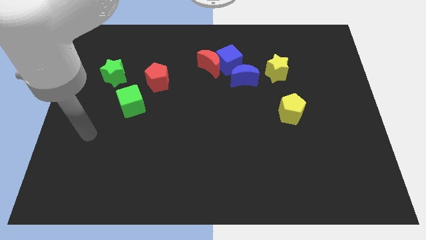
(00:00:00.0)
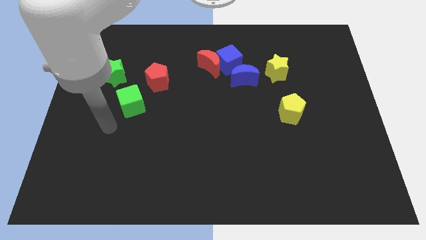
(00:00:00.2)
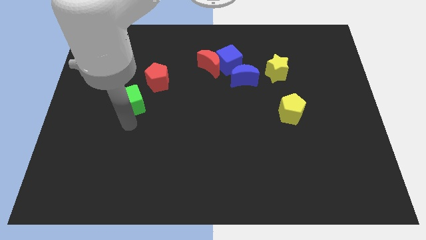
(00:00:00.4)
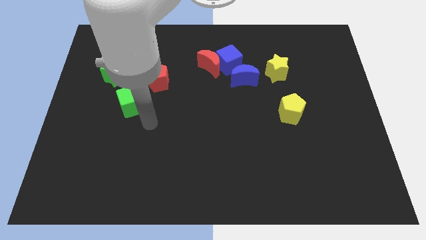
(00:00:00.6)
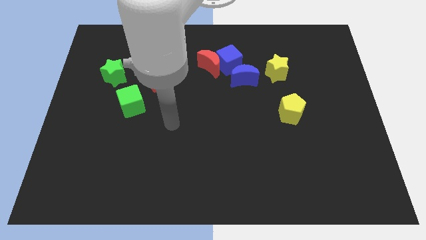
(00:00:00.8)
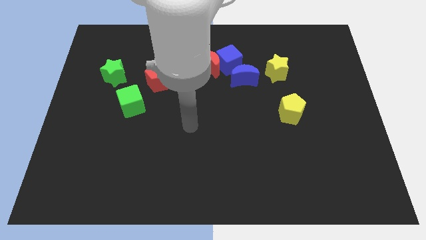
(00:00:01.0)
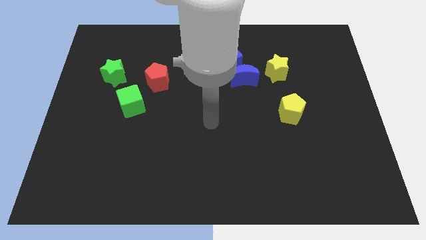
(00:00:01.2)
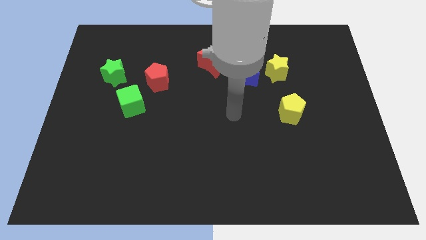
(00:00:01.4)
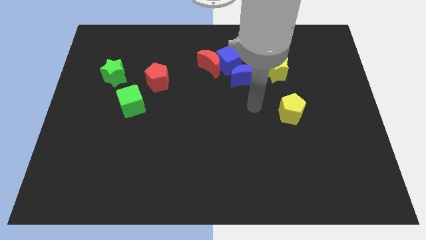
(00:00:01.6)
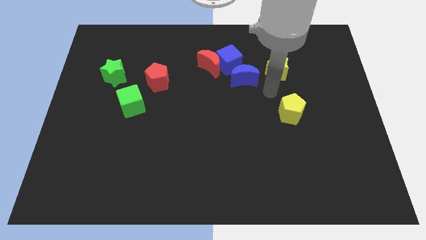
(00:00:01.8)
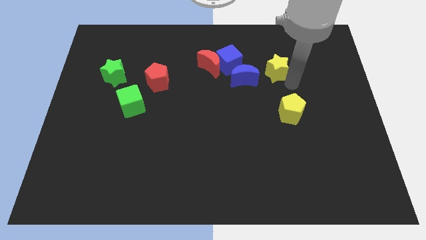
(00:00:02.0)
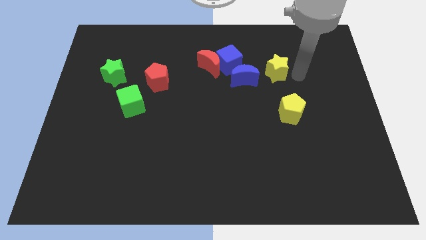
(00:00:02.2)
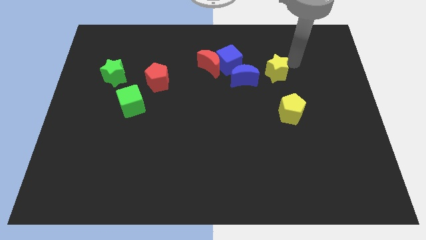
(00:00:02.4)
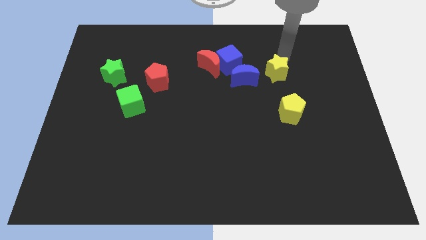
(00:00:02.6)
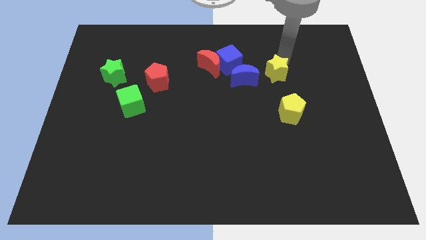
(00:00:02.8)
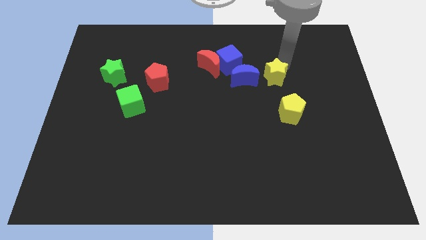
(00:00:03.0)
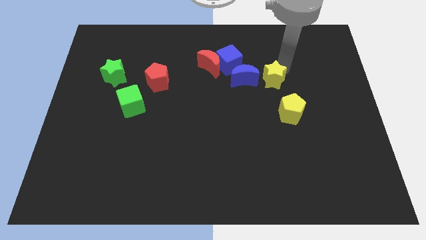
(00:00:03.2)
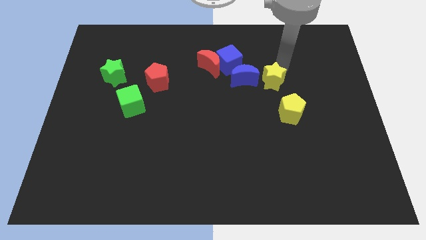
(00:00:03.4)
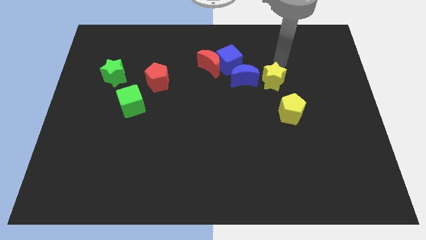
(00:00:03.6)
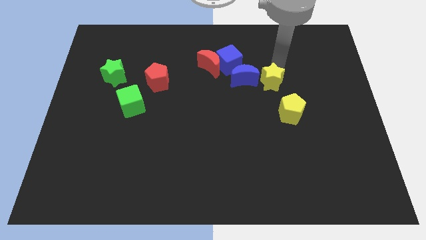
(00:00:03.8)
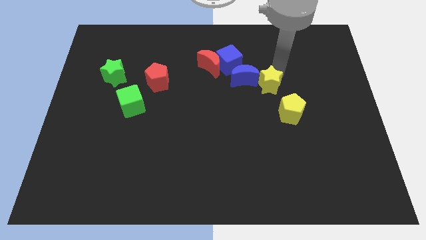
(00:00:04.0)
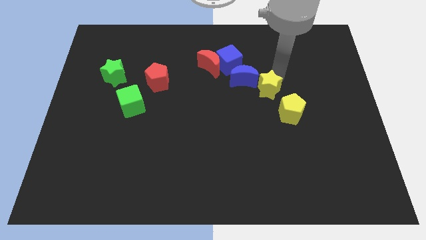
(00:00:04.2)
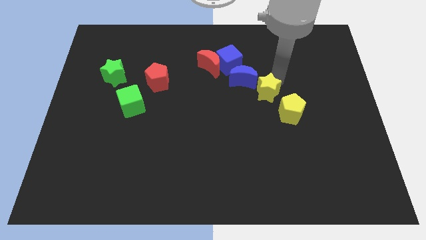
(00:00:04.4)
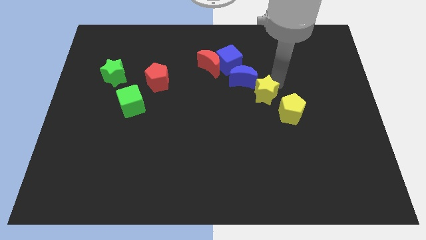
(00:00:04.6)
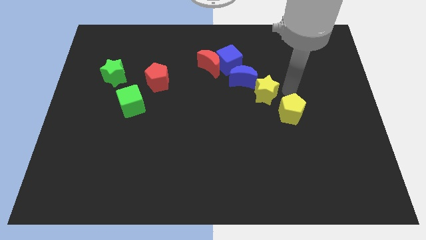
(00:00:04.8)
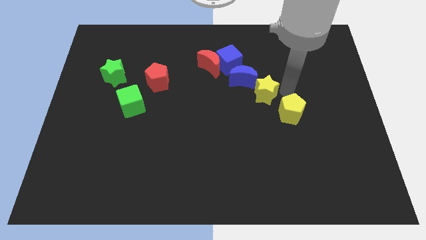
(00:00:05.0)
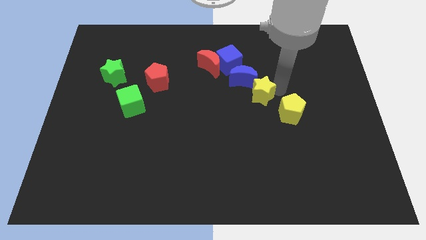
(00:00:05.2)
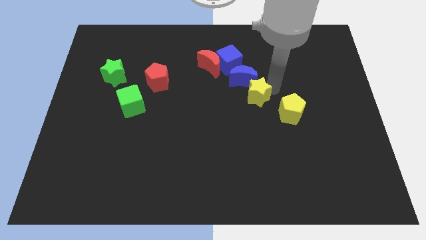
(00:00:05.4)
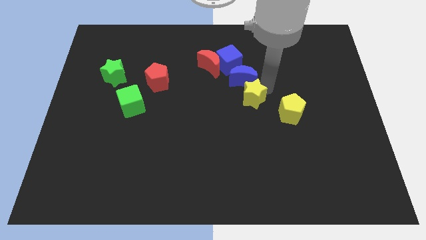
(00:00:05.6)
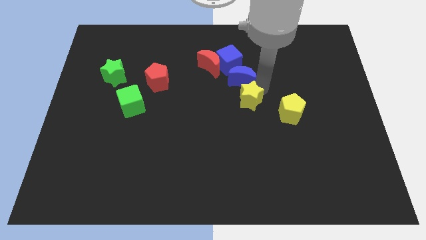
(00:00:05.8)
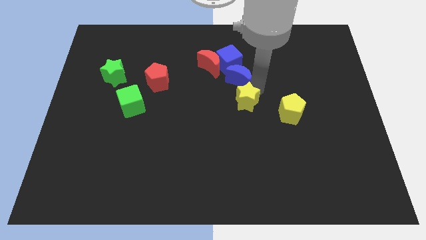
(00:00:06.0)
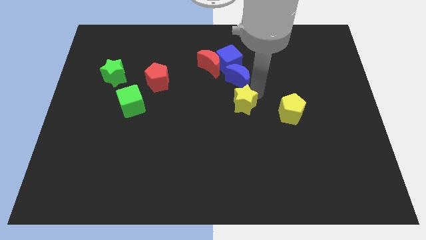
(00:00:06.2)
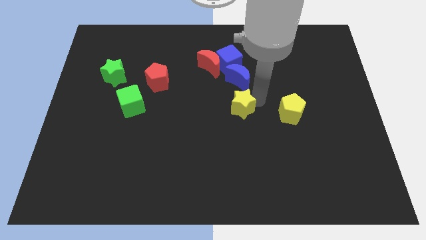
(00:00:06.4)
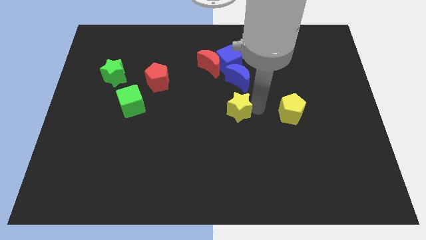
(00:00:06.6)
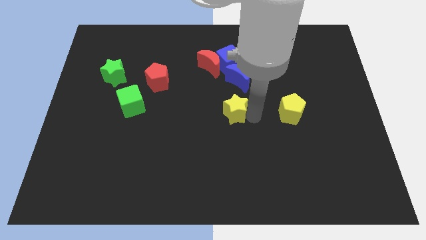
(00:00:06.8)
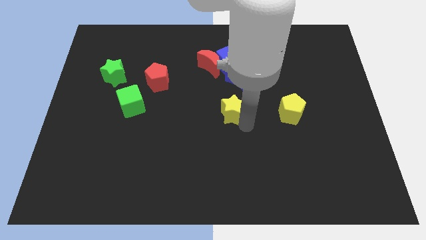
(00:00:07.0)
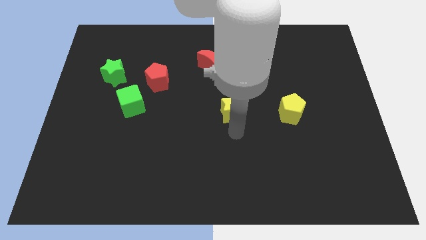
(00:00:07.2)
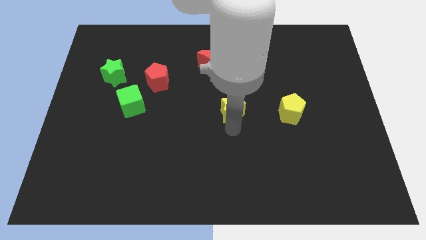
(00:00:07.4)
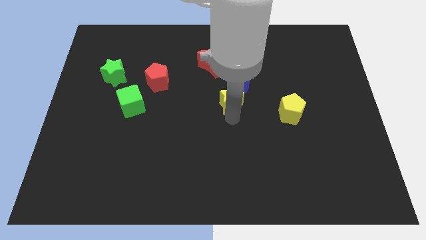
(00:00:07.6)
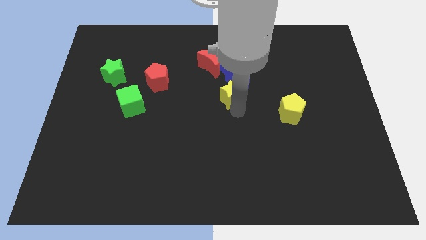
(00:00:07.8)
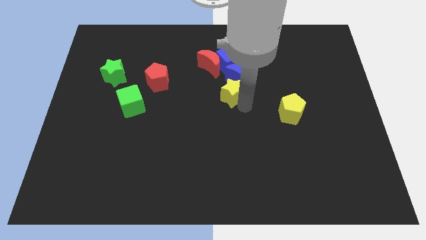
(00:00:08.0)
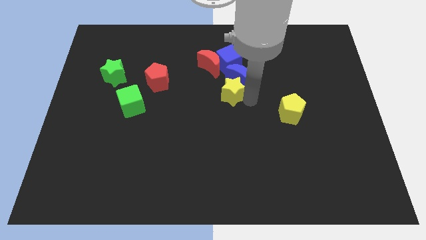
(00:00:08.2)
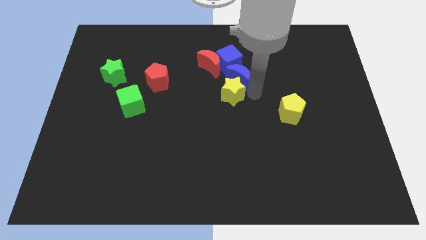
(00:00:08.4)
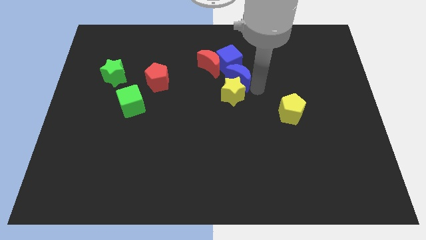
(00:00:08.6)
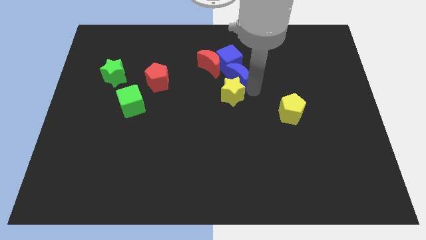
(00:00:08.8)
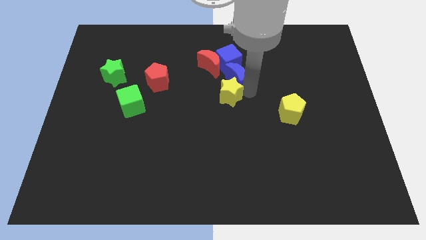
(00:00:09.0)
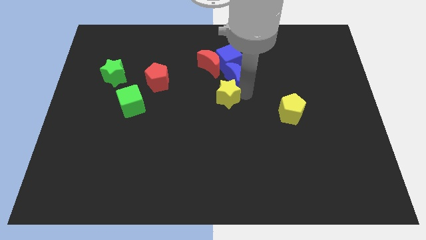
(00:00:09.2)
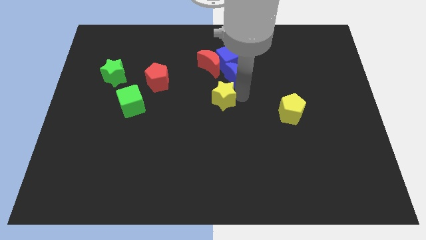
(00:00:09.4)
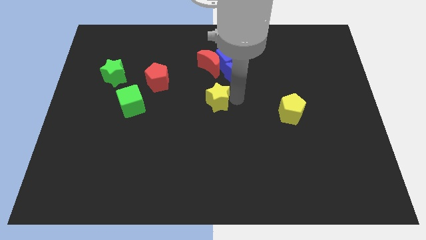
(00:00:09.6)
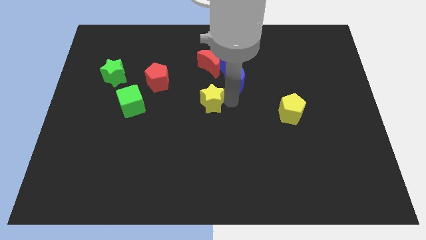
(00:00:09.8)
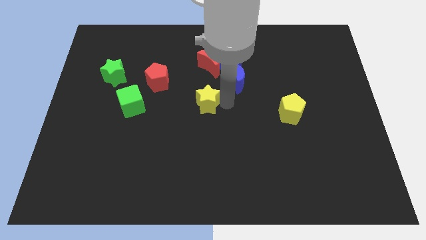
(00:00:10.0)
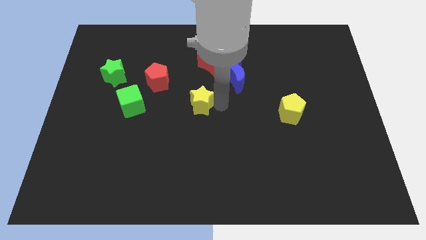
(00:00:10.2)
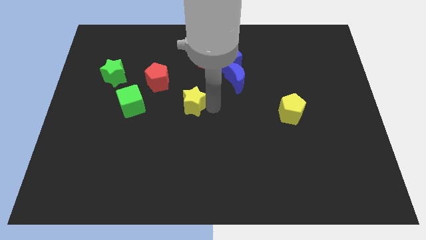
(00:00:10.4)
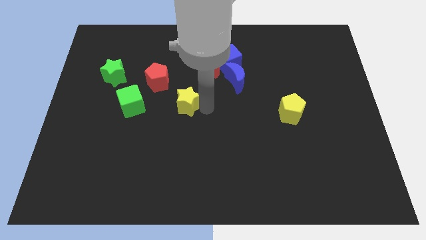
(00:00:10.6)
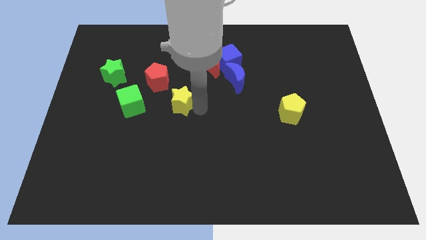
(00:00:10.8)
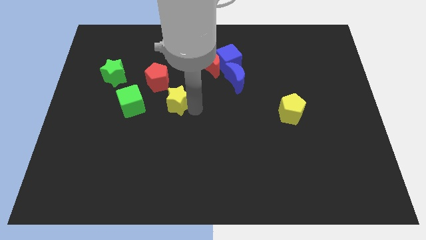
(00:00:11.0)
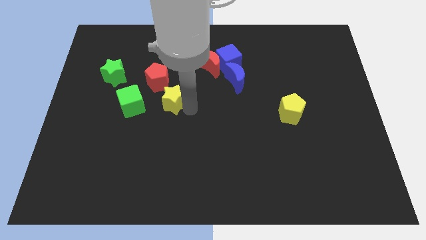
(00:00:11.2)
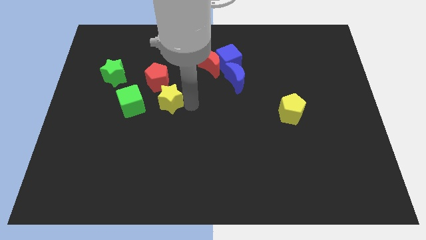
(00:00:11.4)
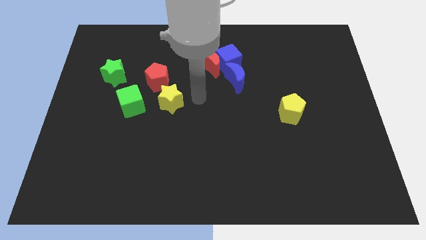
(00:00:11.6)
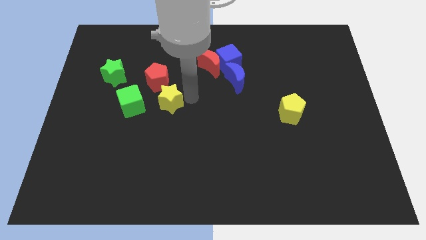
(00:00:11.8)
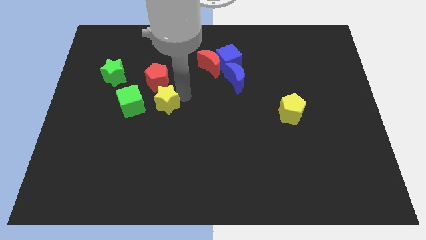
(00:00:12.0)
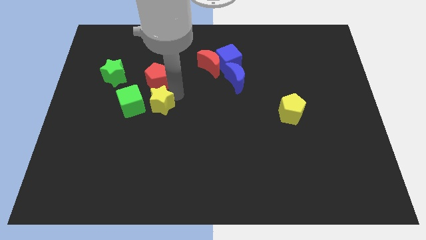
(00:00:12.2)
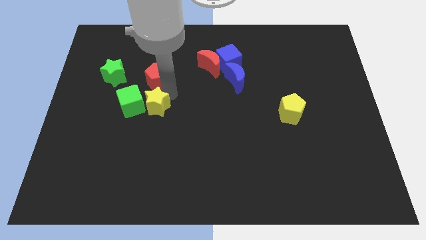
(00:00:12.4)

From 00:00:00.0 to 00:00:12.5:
slide the yellow star to the green cube

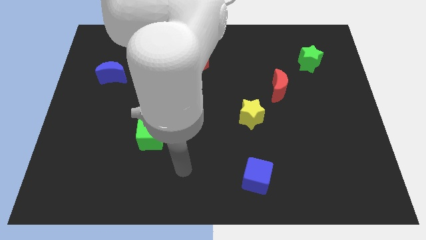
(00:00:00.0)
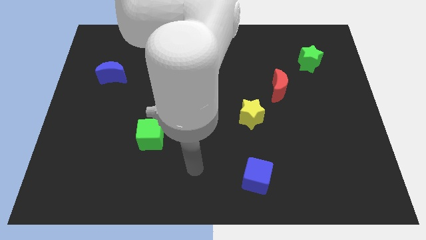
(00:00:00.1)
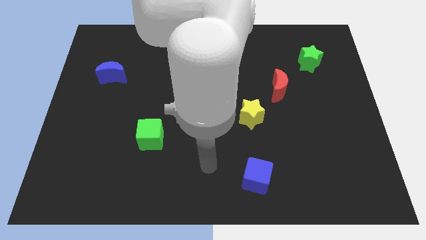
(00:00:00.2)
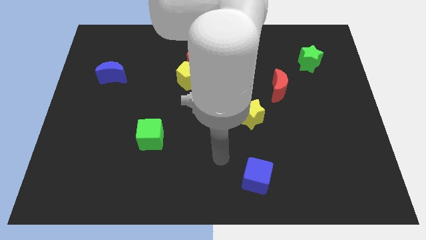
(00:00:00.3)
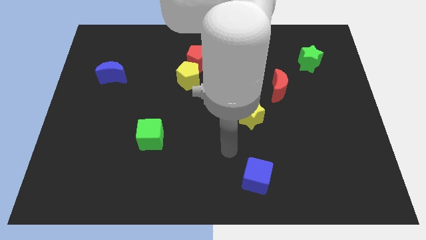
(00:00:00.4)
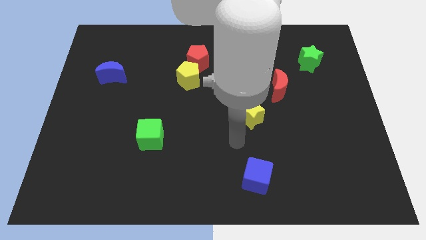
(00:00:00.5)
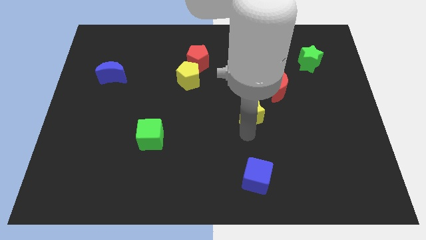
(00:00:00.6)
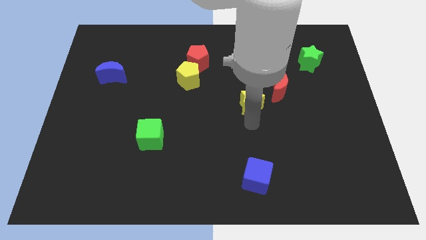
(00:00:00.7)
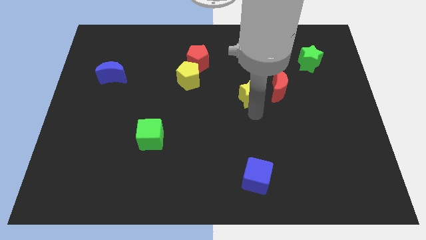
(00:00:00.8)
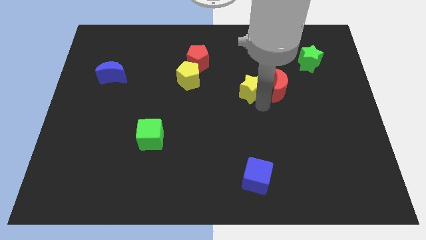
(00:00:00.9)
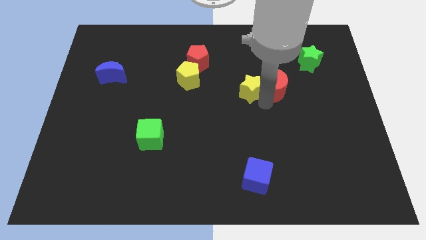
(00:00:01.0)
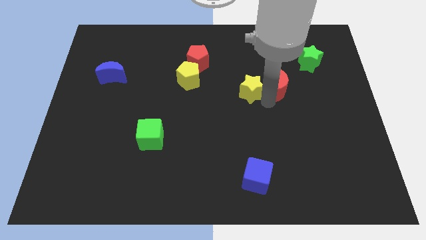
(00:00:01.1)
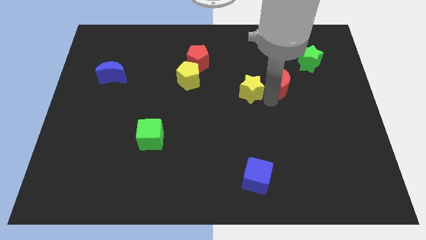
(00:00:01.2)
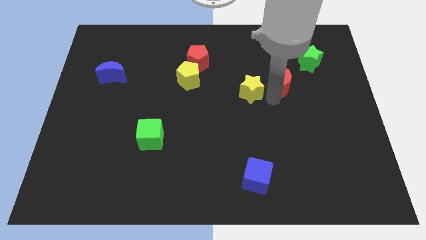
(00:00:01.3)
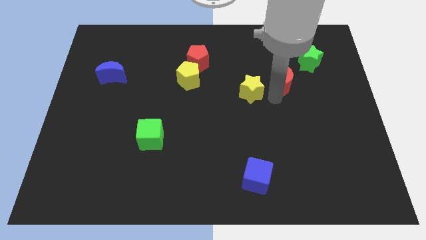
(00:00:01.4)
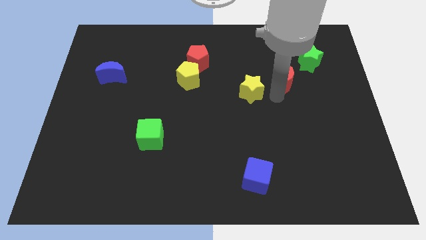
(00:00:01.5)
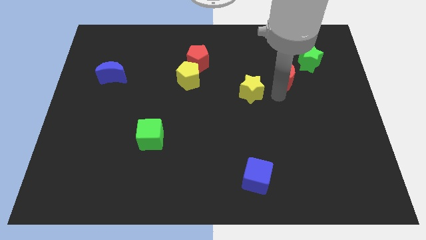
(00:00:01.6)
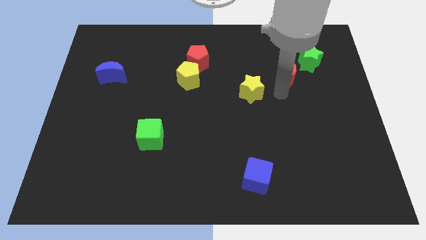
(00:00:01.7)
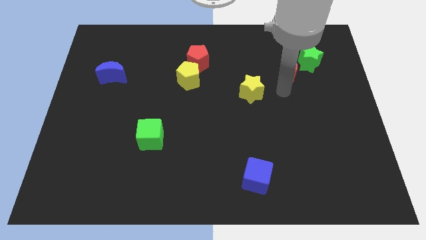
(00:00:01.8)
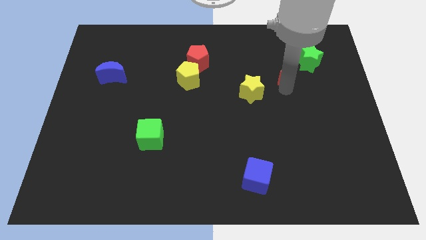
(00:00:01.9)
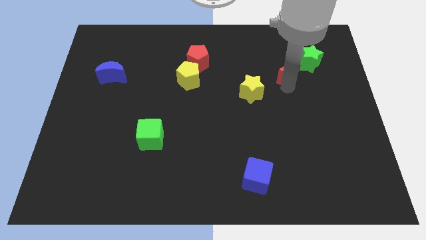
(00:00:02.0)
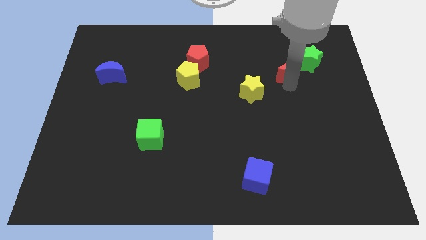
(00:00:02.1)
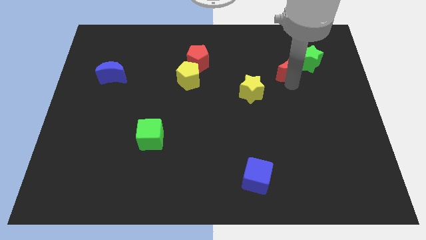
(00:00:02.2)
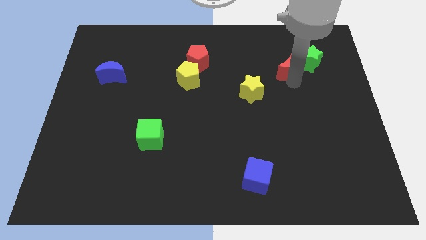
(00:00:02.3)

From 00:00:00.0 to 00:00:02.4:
slide the red moon next to the green star
